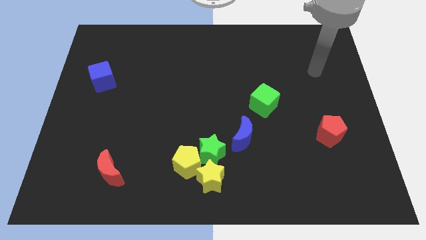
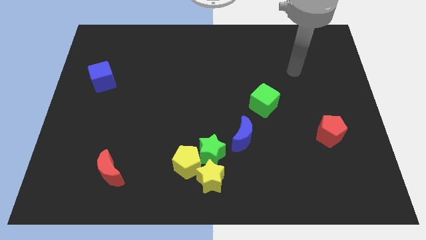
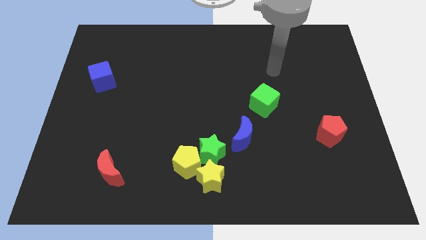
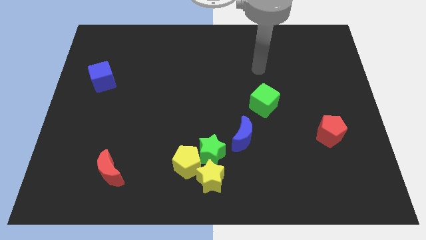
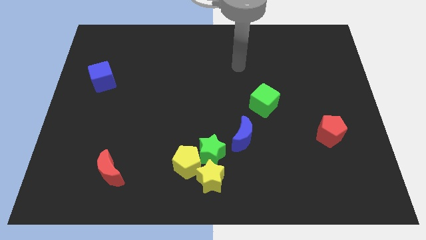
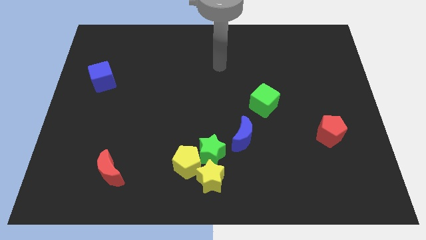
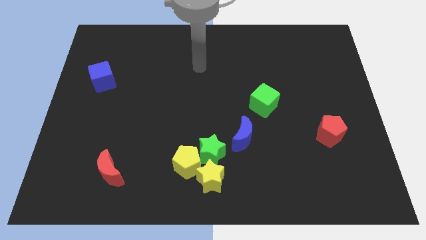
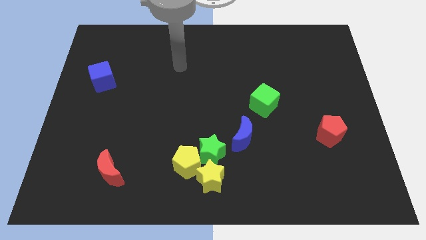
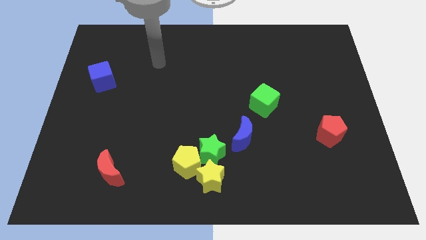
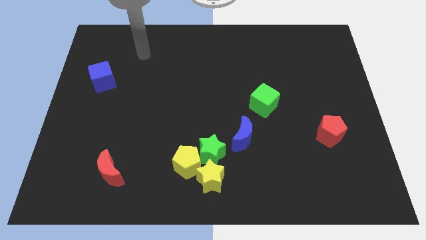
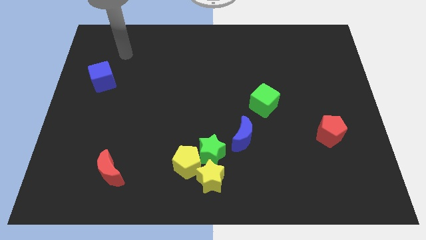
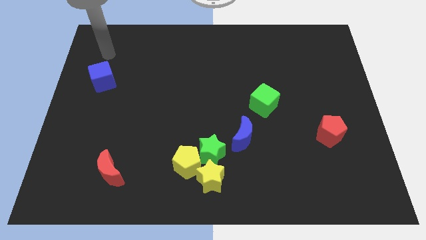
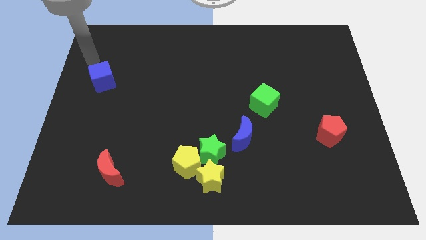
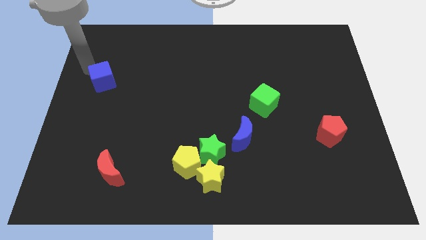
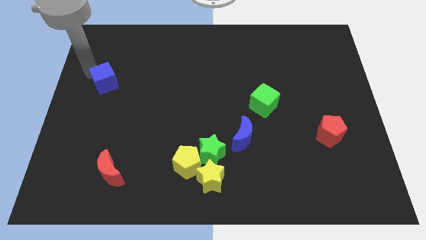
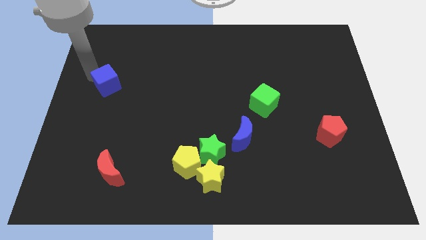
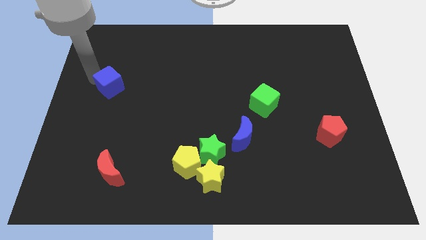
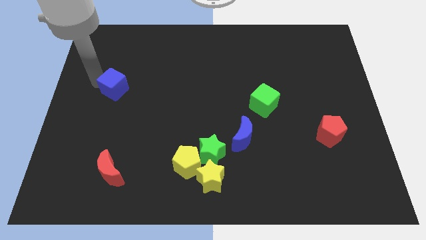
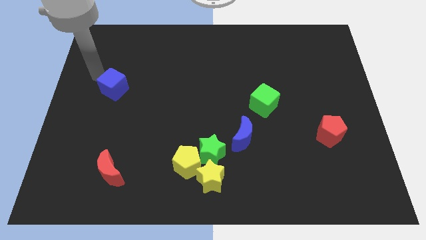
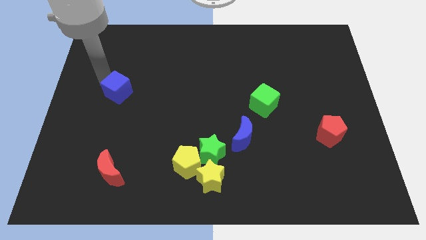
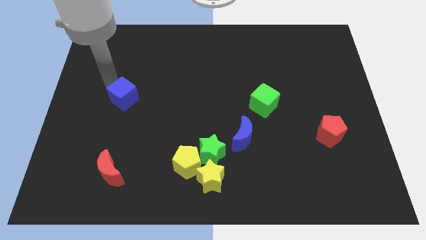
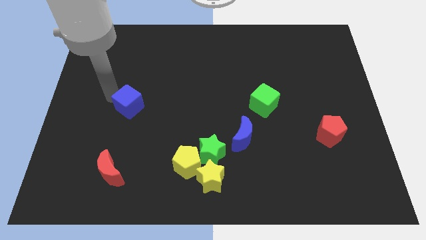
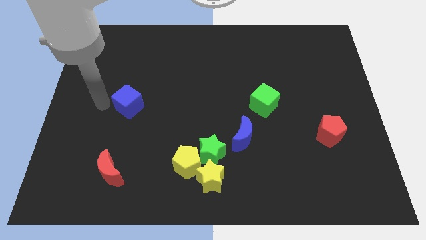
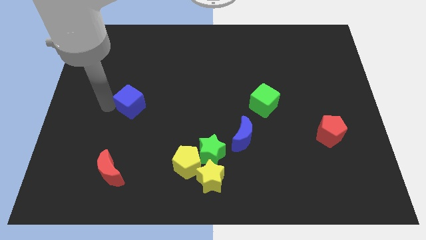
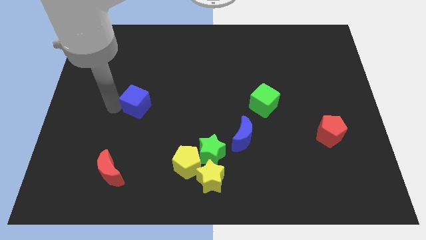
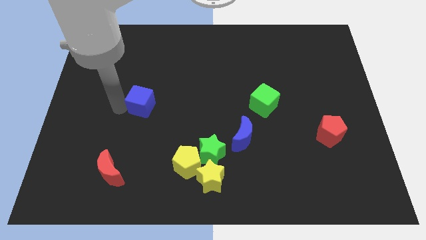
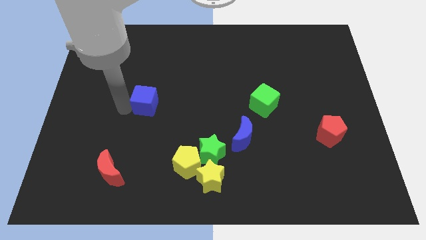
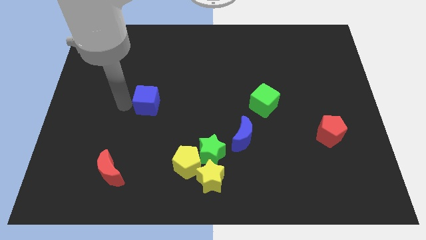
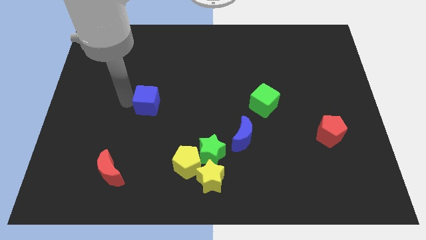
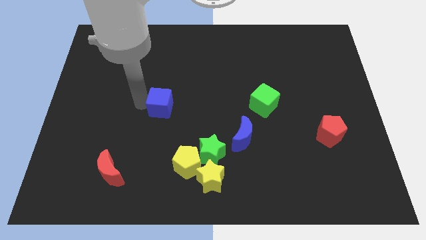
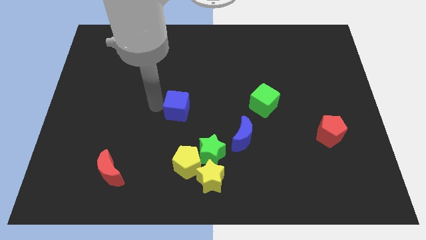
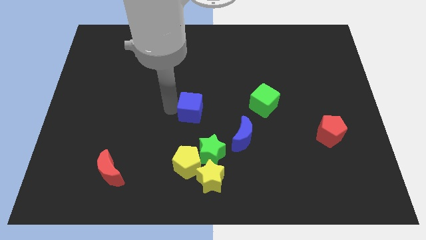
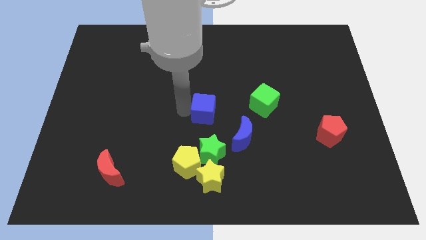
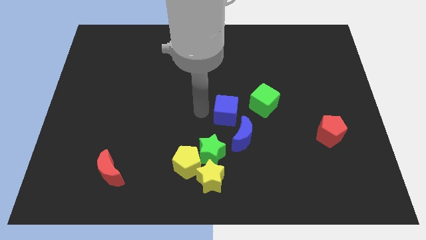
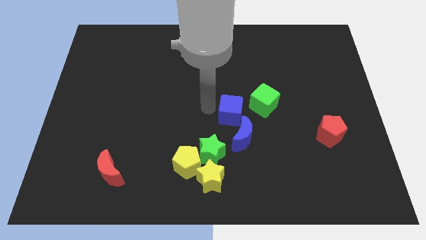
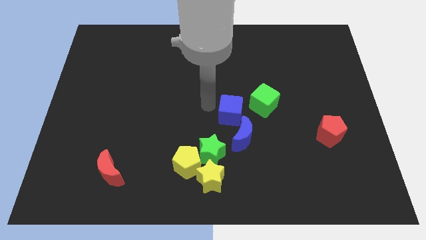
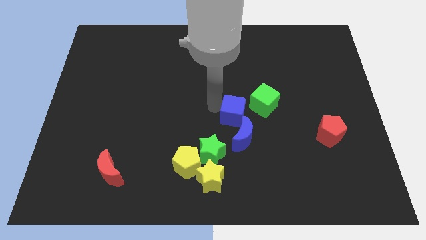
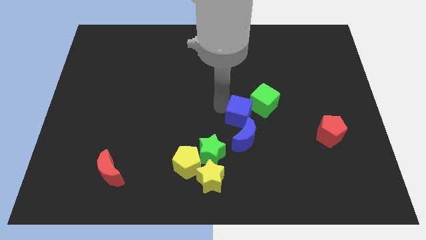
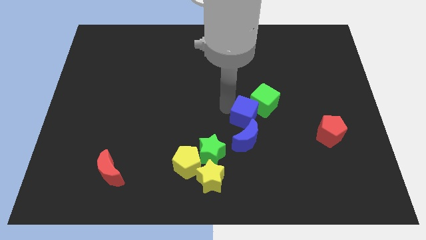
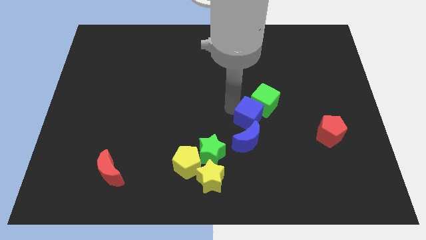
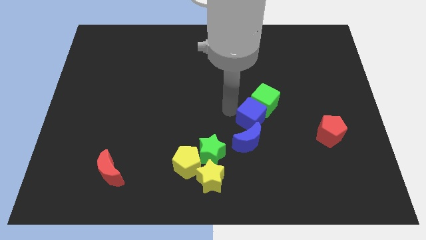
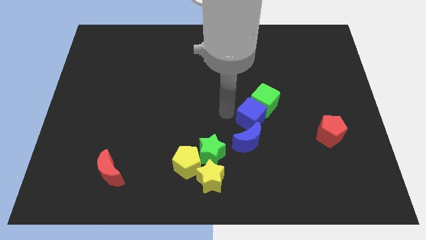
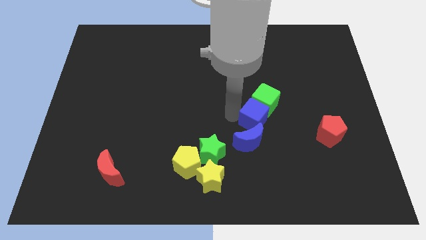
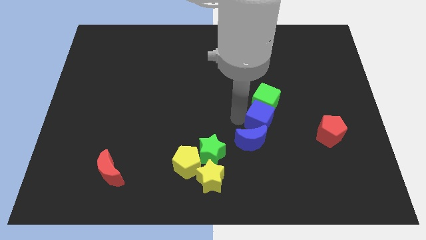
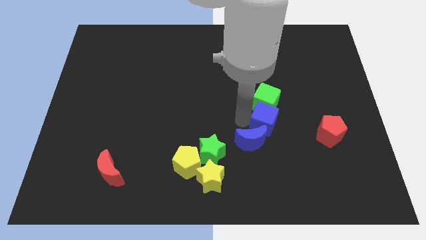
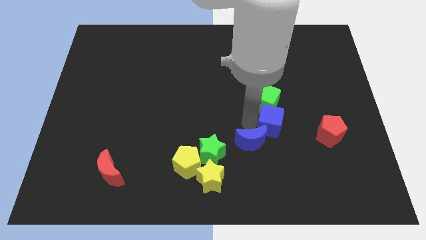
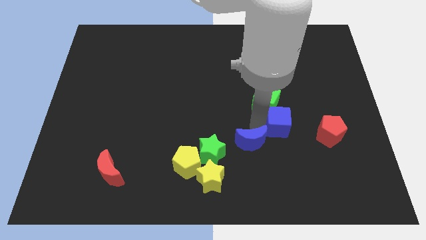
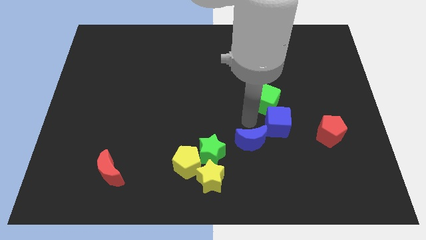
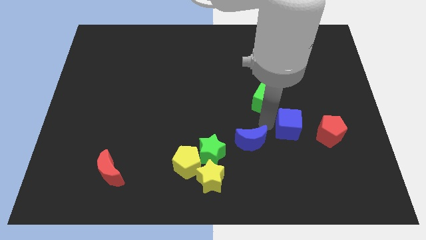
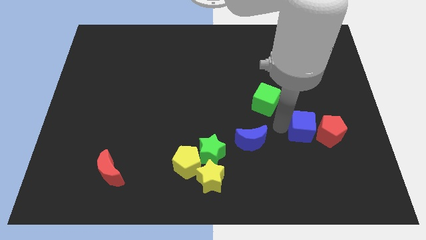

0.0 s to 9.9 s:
put the blue cube towards the red pentagon

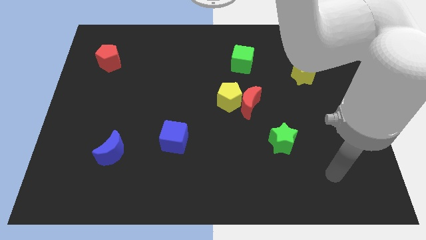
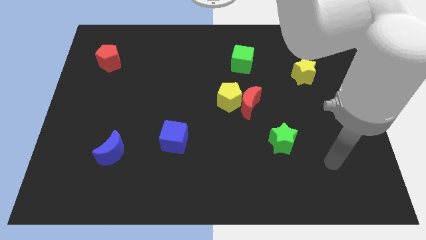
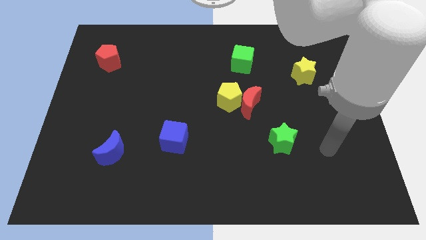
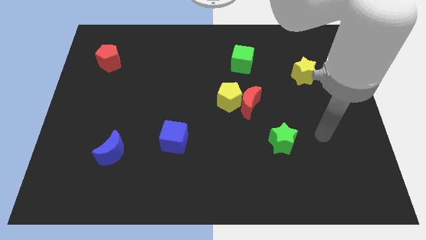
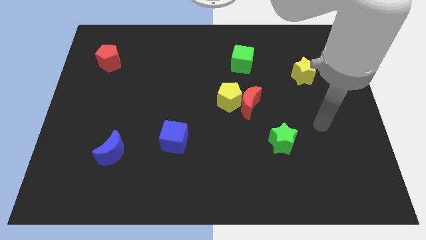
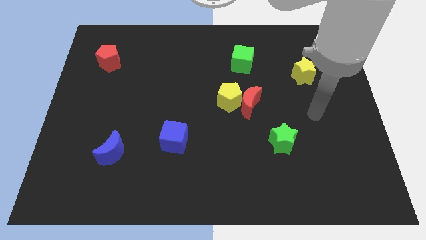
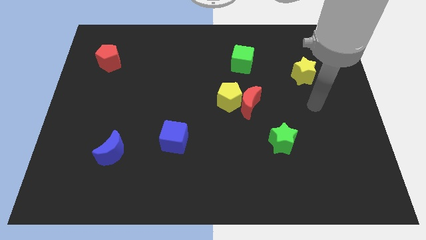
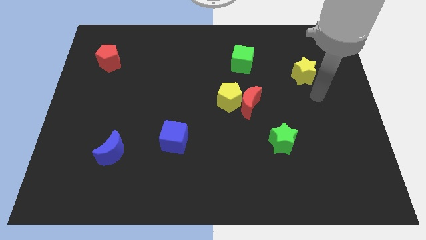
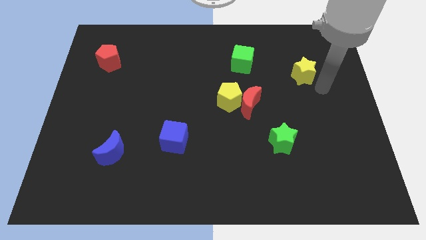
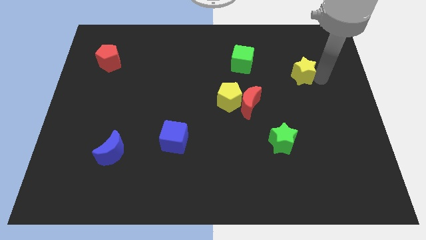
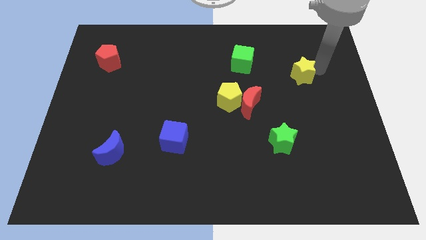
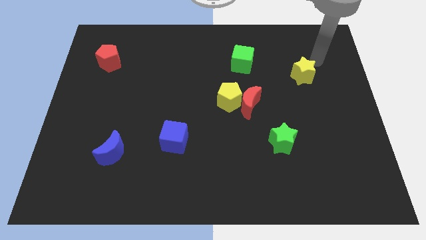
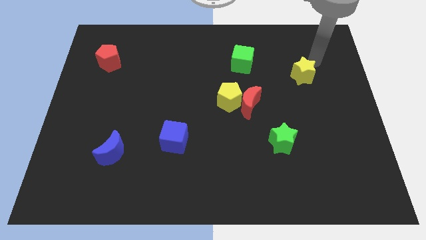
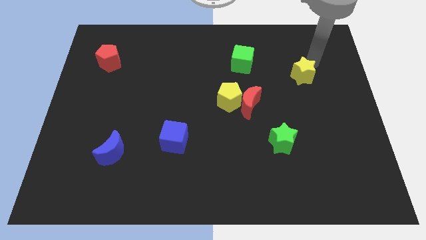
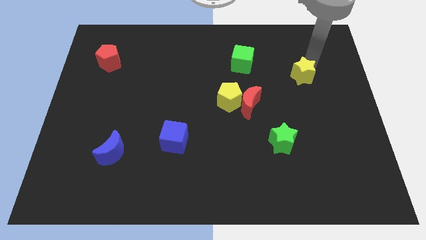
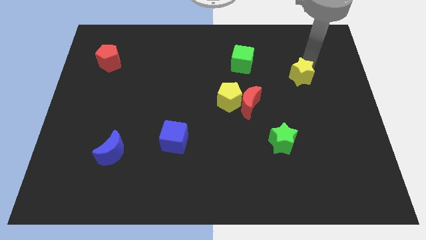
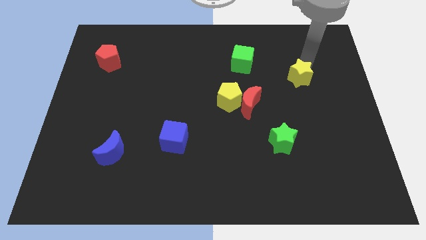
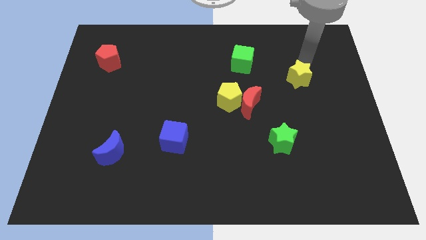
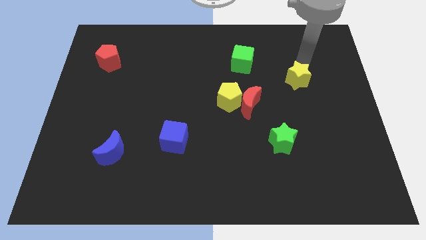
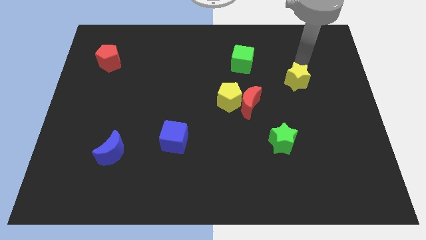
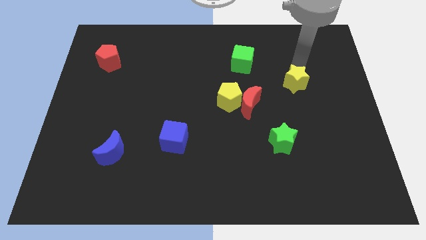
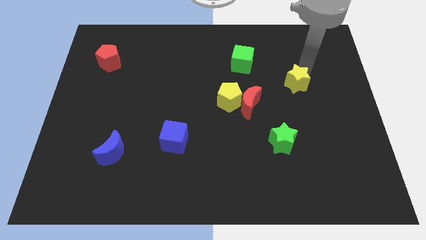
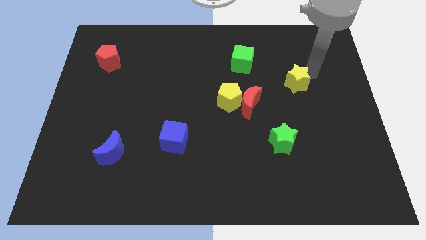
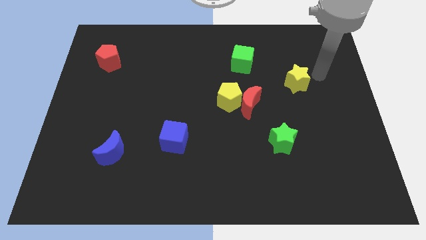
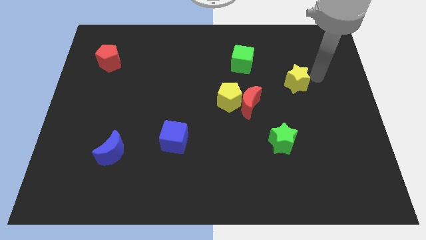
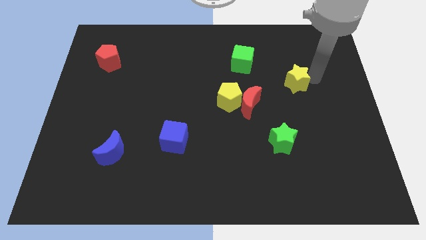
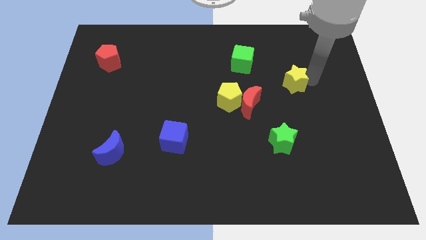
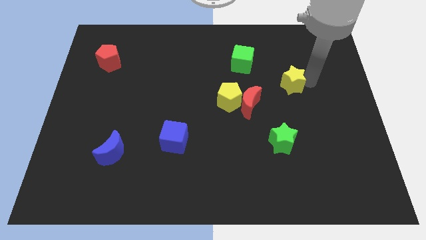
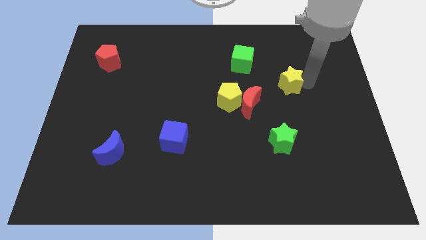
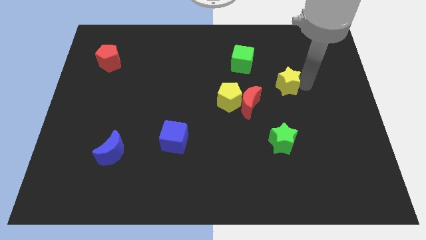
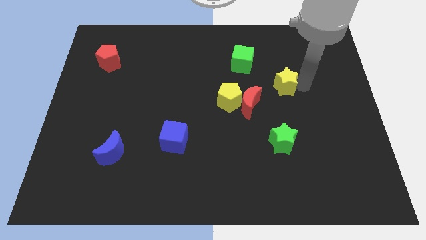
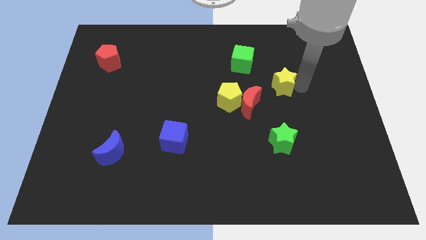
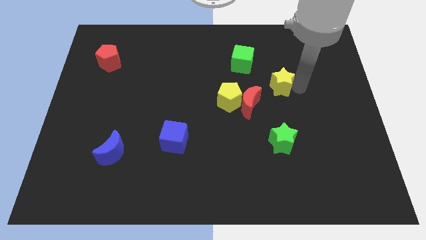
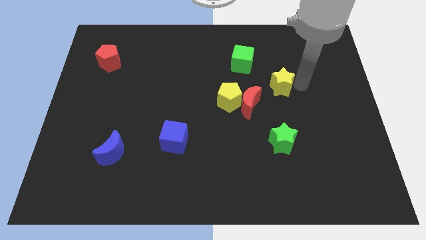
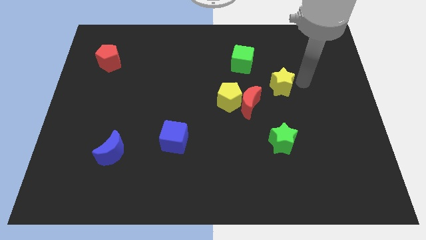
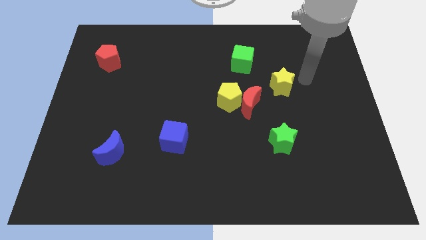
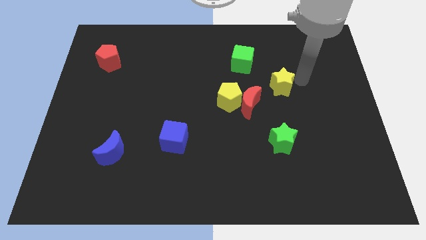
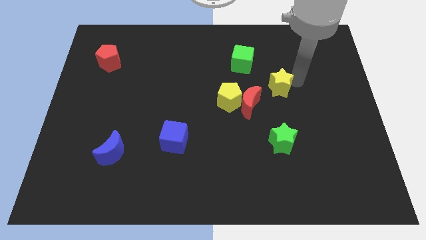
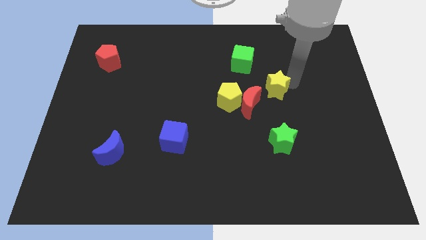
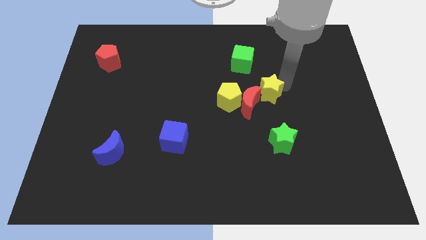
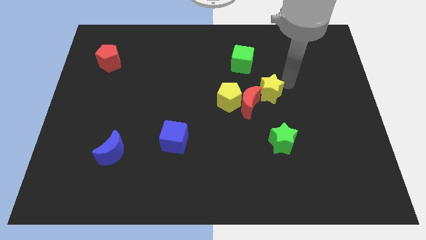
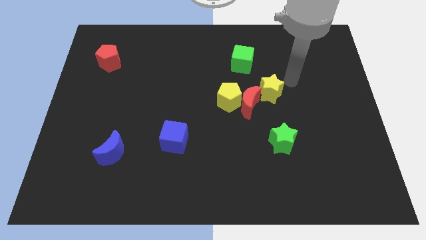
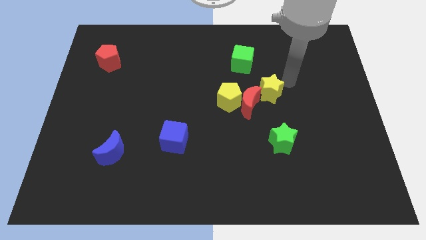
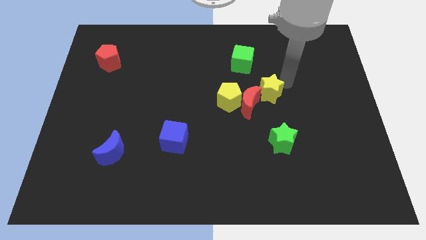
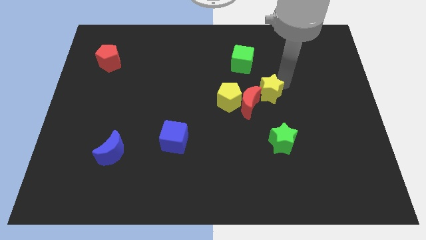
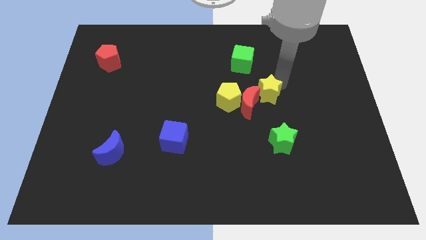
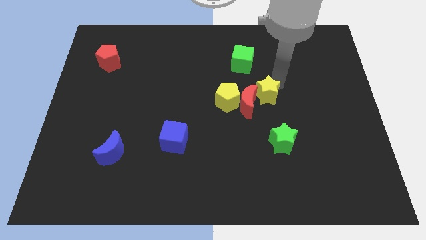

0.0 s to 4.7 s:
slide the yellow star close to the red moon
